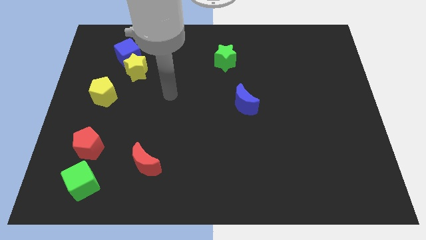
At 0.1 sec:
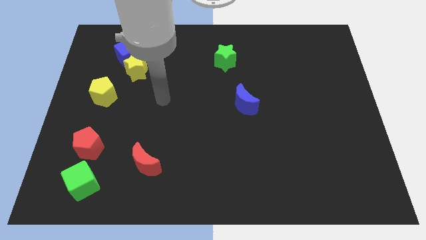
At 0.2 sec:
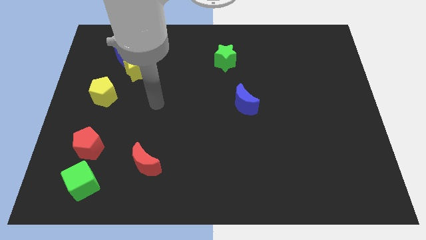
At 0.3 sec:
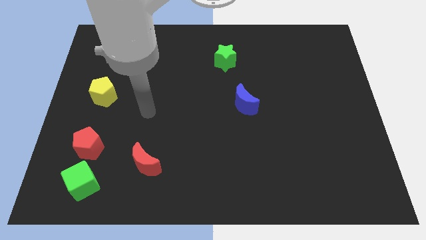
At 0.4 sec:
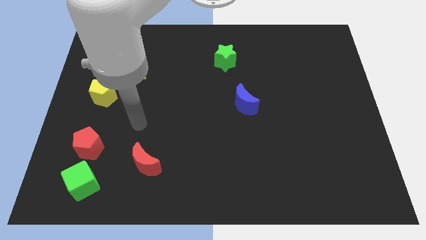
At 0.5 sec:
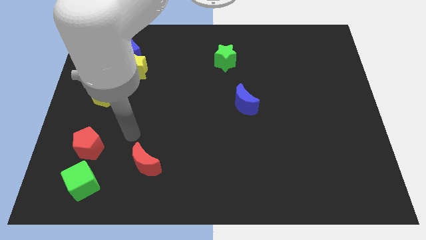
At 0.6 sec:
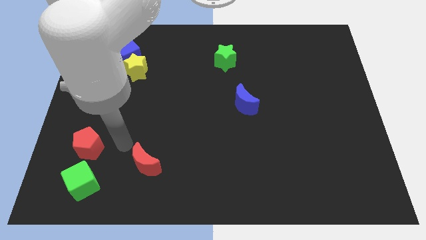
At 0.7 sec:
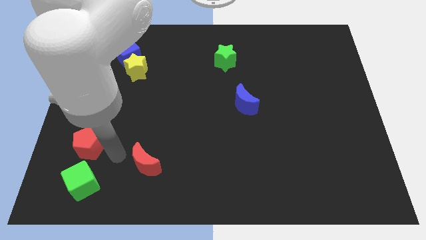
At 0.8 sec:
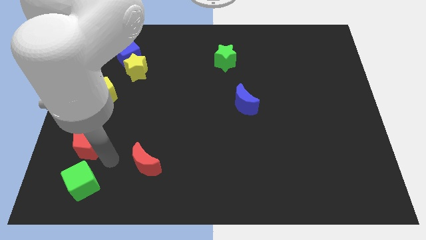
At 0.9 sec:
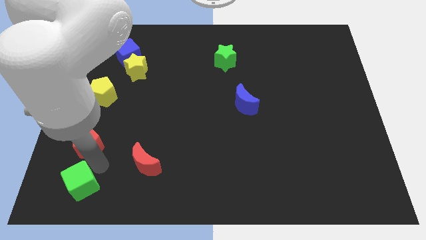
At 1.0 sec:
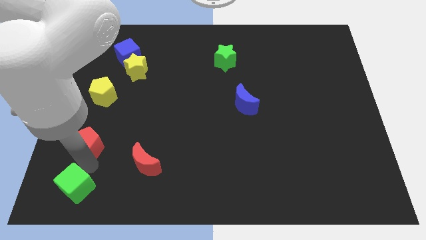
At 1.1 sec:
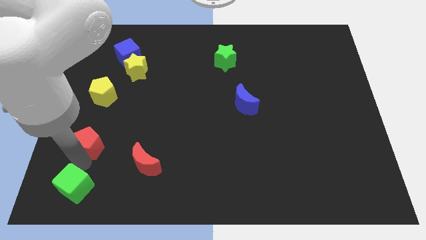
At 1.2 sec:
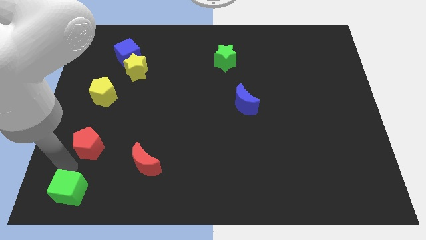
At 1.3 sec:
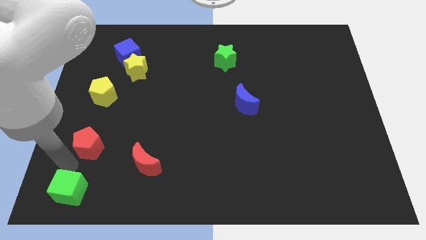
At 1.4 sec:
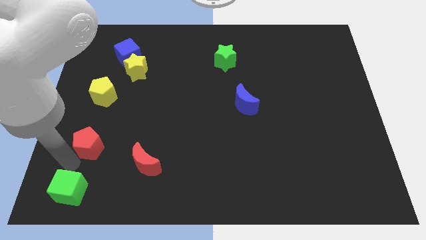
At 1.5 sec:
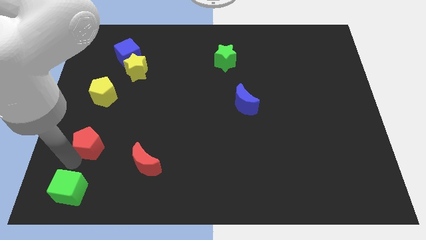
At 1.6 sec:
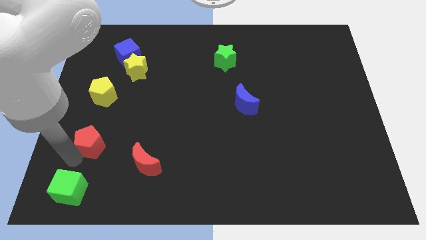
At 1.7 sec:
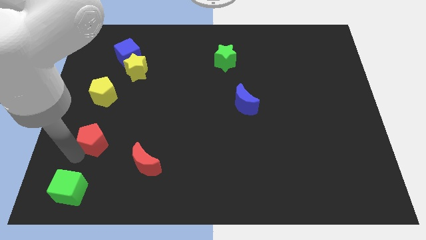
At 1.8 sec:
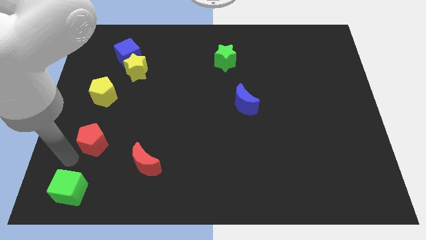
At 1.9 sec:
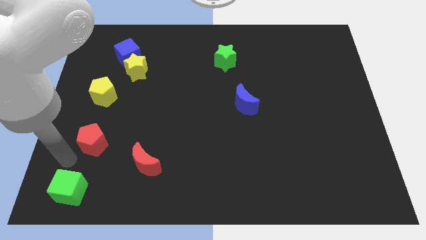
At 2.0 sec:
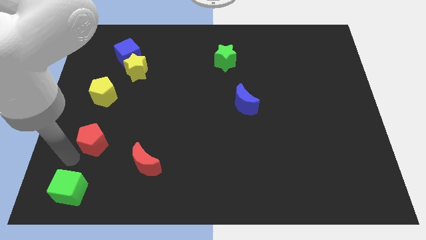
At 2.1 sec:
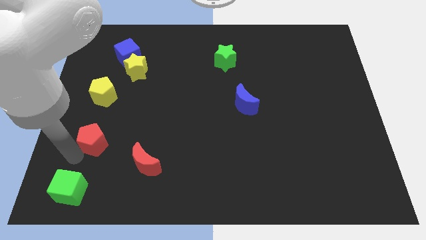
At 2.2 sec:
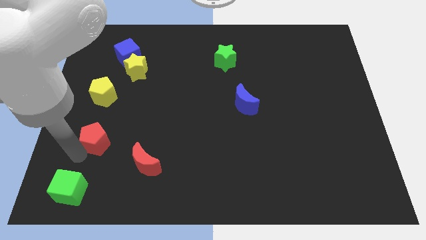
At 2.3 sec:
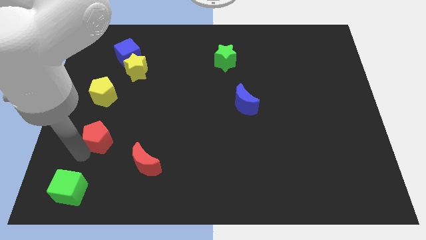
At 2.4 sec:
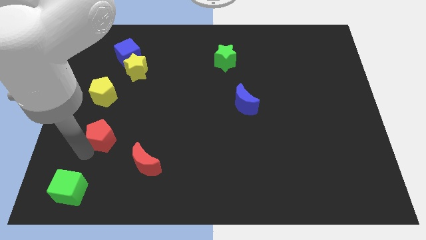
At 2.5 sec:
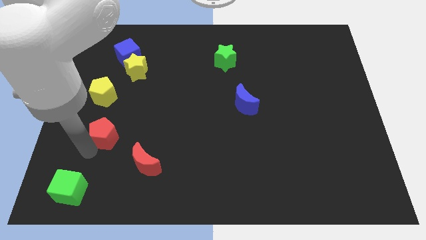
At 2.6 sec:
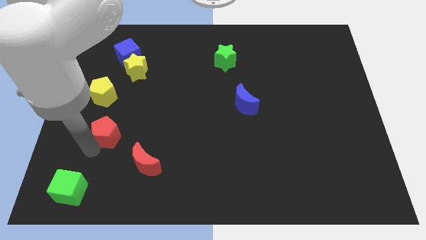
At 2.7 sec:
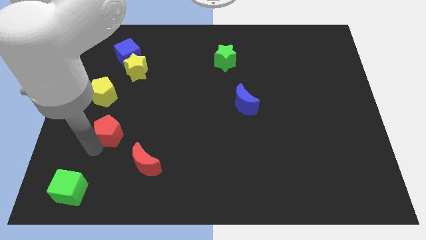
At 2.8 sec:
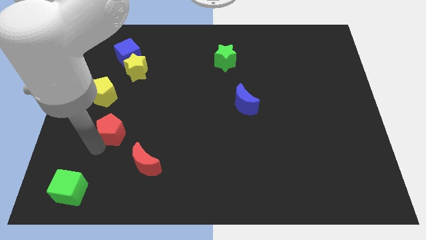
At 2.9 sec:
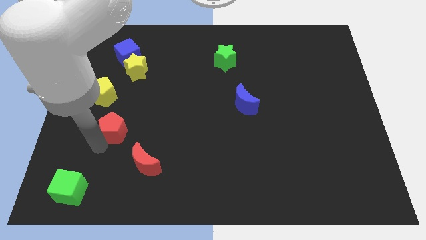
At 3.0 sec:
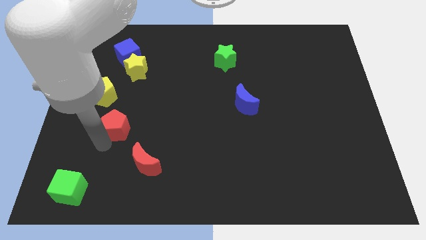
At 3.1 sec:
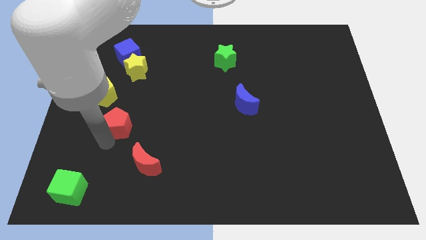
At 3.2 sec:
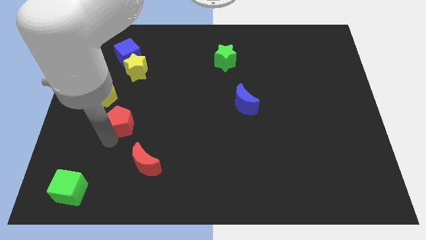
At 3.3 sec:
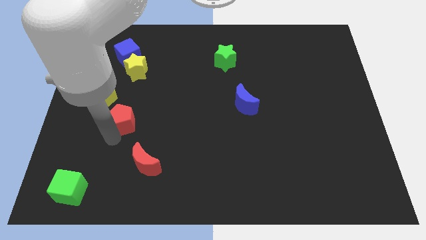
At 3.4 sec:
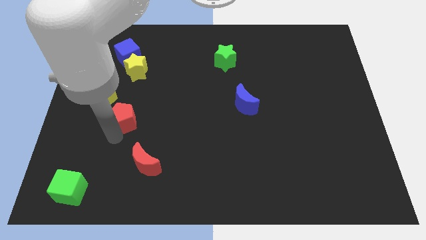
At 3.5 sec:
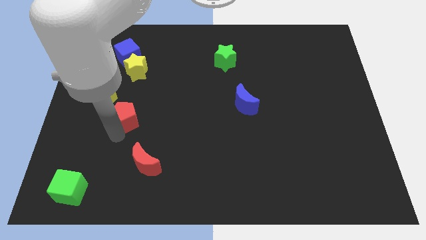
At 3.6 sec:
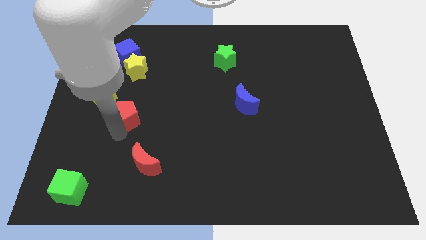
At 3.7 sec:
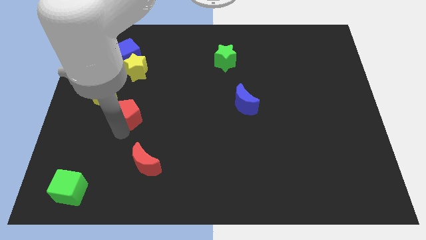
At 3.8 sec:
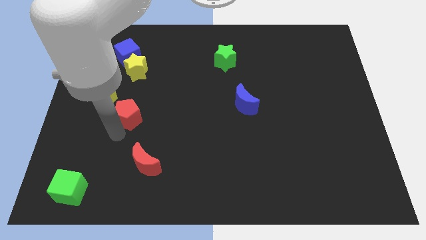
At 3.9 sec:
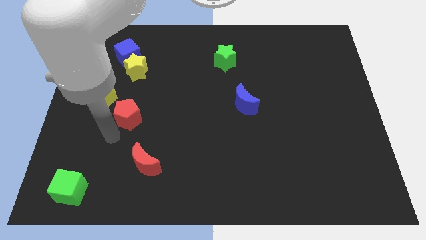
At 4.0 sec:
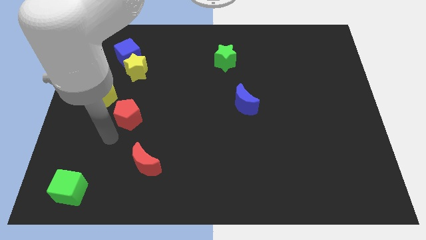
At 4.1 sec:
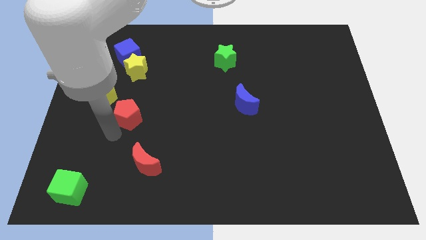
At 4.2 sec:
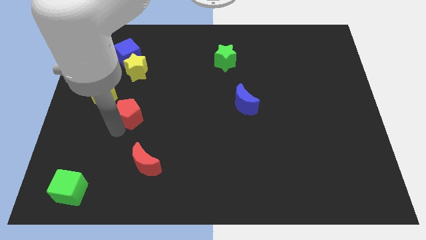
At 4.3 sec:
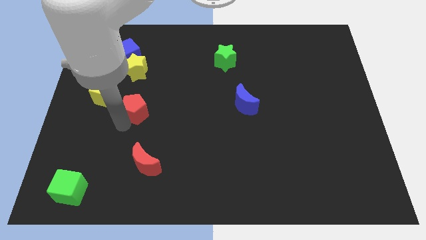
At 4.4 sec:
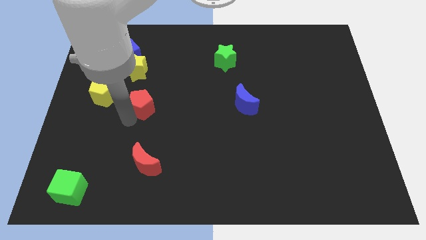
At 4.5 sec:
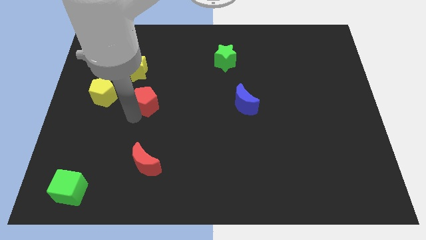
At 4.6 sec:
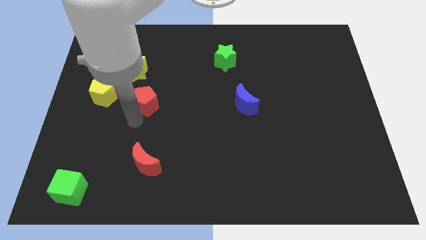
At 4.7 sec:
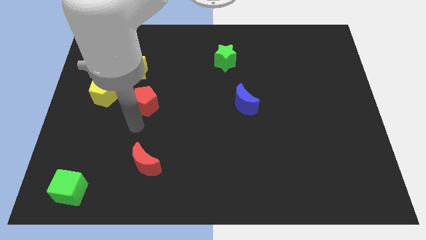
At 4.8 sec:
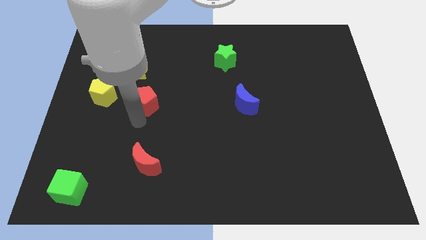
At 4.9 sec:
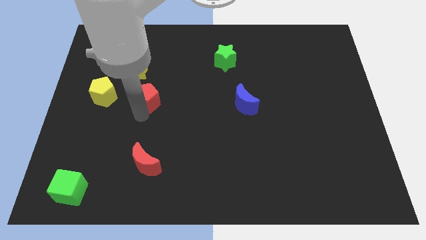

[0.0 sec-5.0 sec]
push the red pentagon diagonally down and to the right of the yellow star

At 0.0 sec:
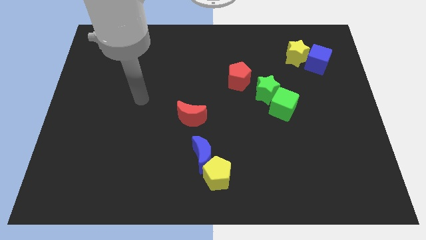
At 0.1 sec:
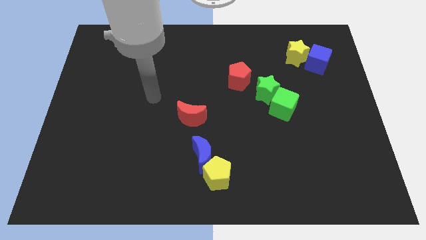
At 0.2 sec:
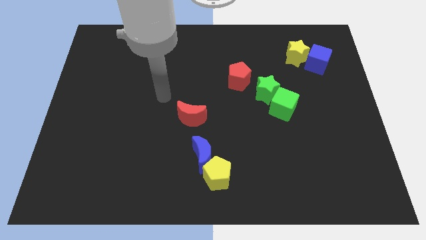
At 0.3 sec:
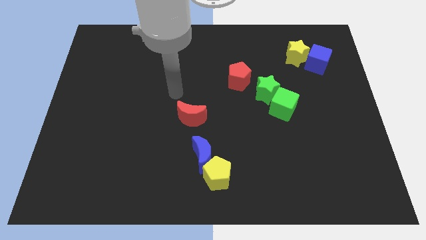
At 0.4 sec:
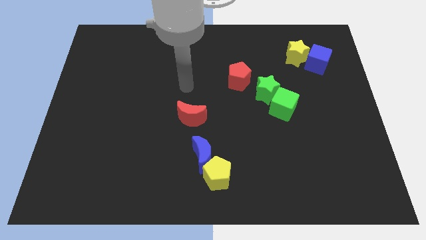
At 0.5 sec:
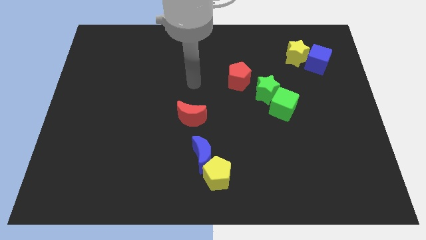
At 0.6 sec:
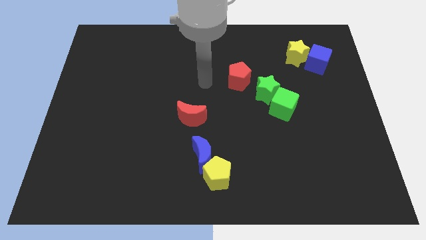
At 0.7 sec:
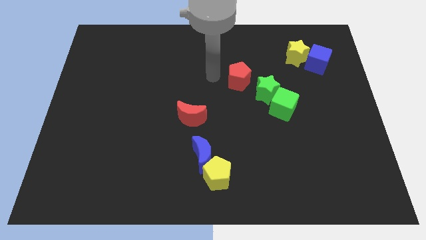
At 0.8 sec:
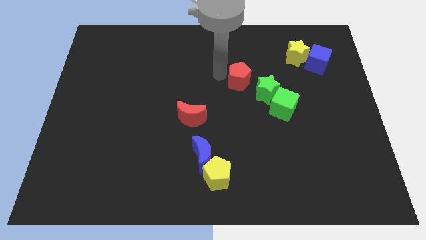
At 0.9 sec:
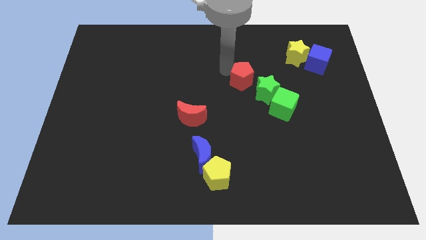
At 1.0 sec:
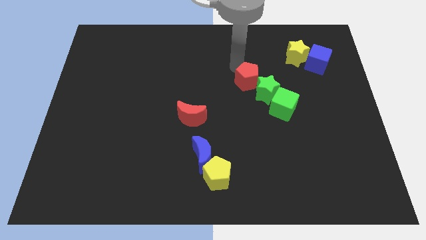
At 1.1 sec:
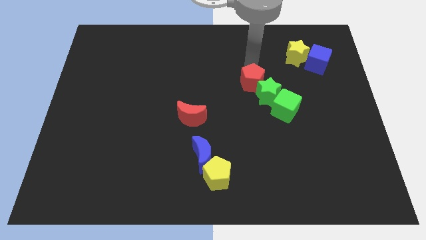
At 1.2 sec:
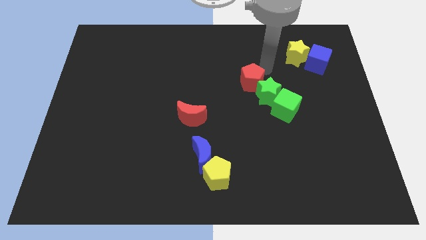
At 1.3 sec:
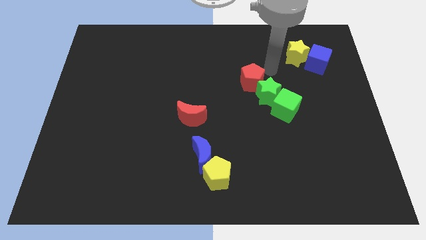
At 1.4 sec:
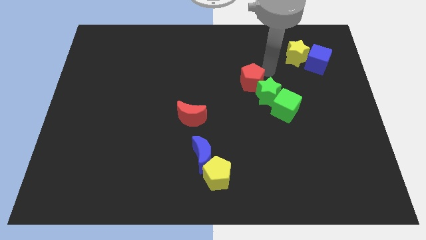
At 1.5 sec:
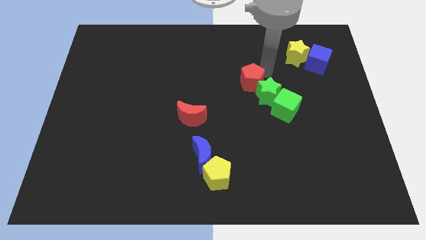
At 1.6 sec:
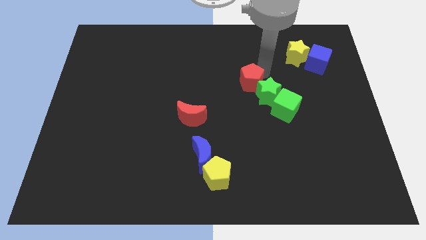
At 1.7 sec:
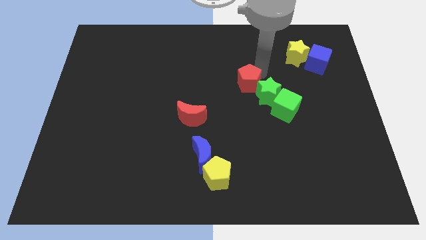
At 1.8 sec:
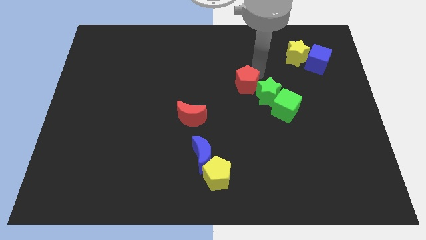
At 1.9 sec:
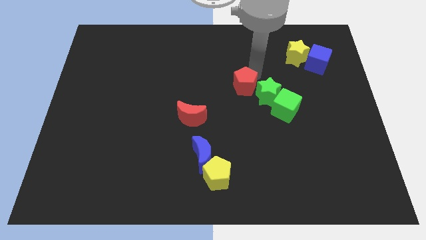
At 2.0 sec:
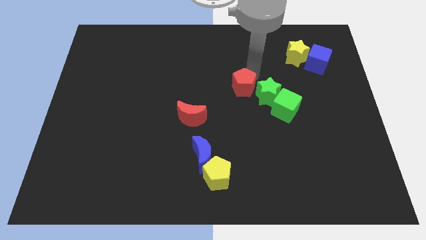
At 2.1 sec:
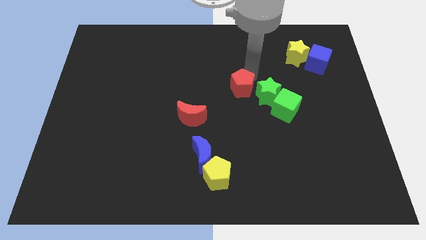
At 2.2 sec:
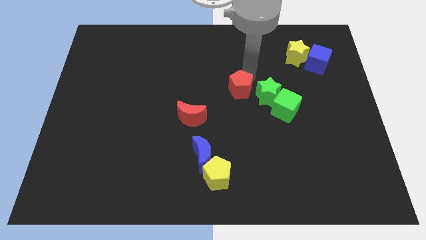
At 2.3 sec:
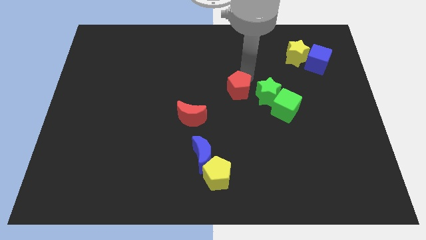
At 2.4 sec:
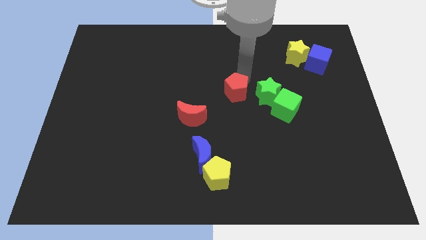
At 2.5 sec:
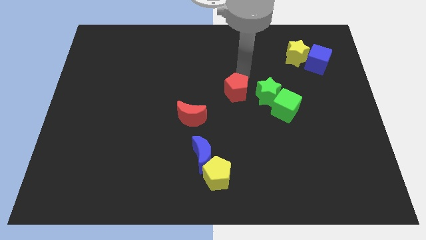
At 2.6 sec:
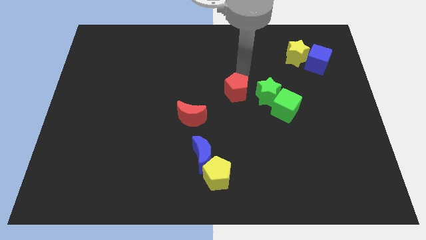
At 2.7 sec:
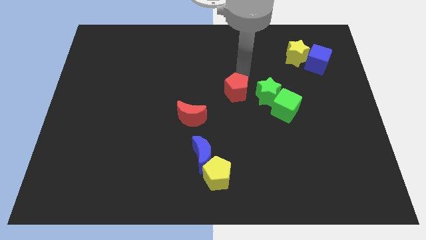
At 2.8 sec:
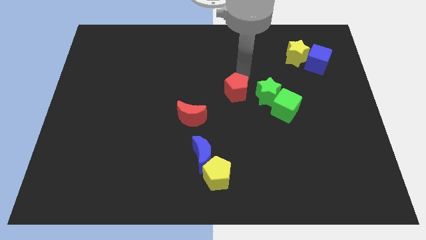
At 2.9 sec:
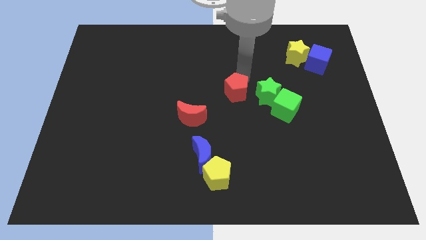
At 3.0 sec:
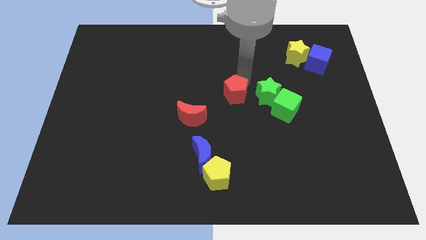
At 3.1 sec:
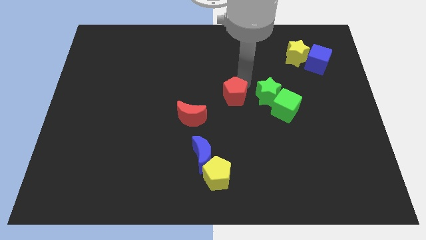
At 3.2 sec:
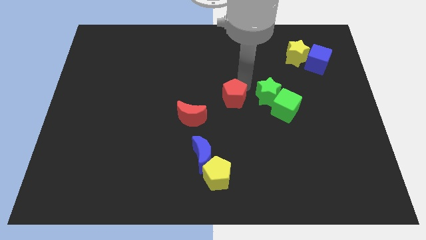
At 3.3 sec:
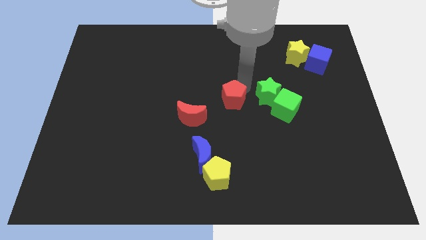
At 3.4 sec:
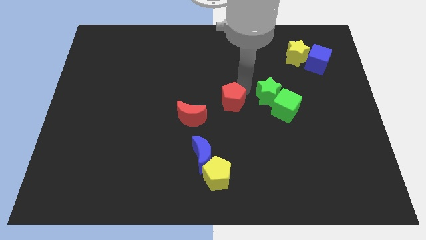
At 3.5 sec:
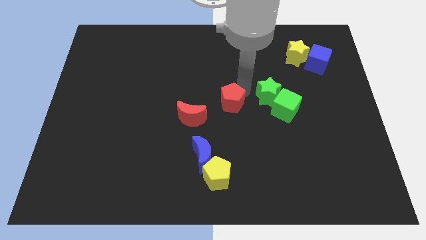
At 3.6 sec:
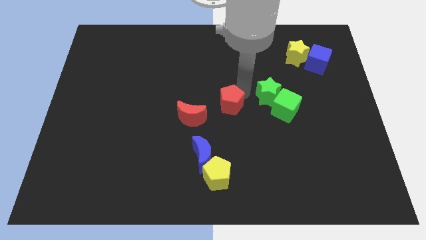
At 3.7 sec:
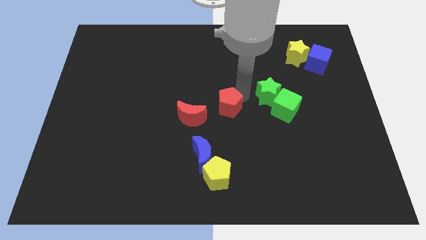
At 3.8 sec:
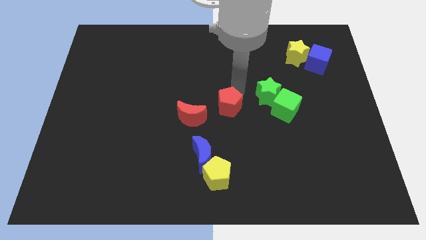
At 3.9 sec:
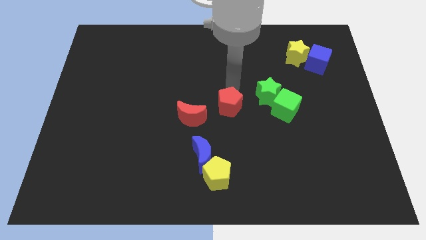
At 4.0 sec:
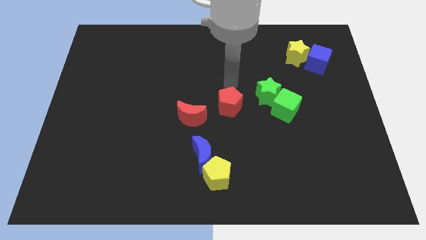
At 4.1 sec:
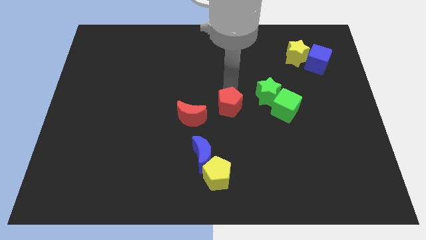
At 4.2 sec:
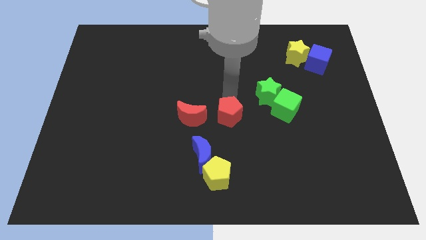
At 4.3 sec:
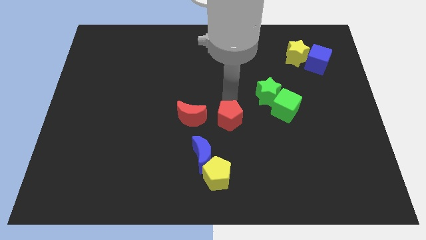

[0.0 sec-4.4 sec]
slide the red pentagon to the top right of the blue moon
